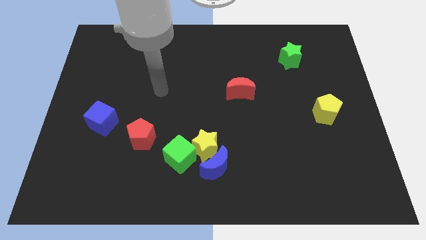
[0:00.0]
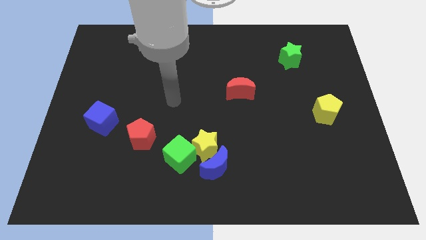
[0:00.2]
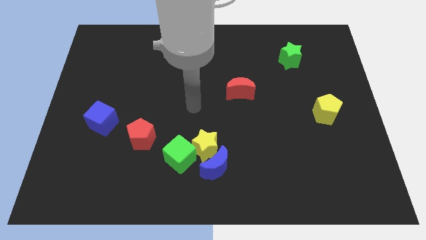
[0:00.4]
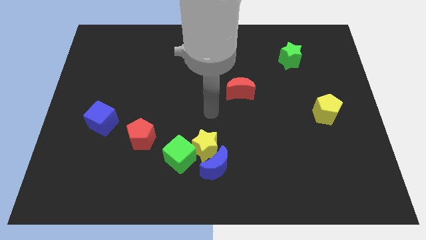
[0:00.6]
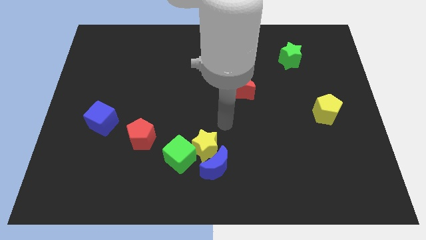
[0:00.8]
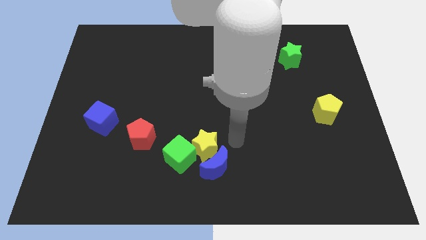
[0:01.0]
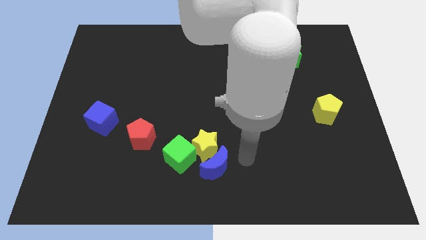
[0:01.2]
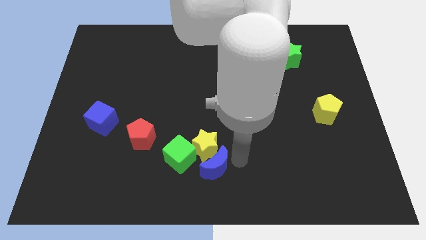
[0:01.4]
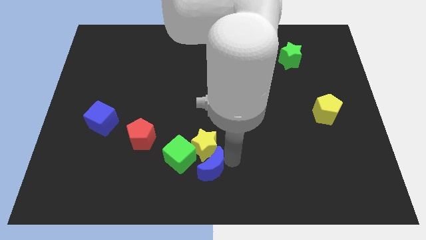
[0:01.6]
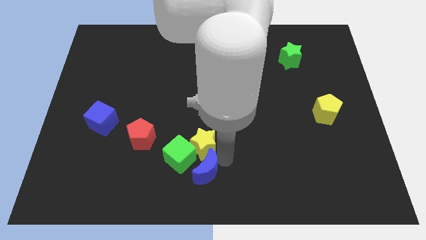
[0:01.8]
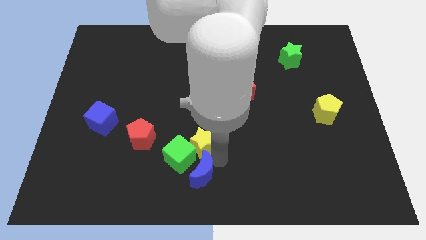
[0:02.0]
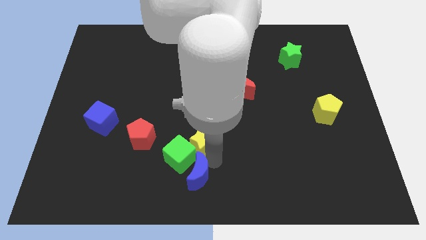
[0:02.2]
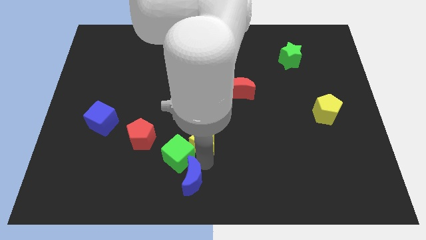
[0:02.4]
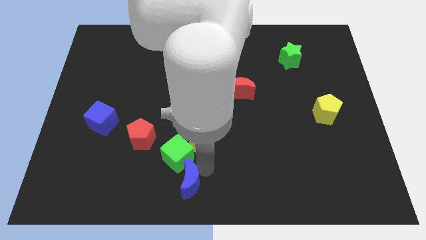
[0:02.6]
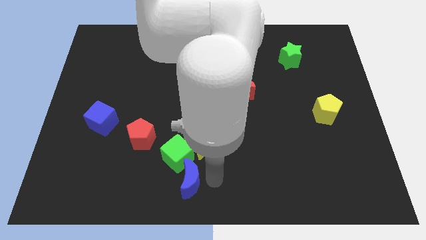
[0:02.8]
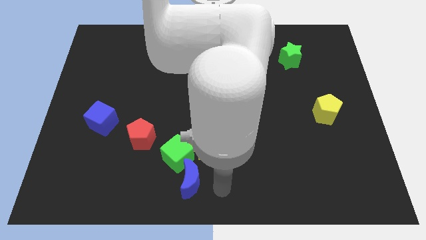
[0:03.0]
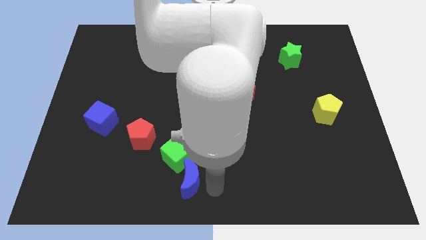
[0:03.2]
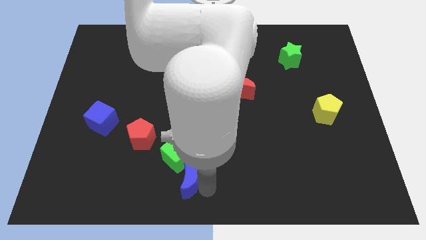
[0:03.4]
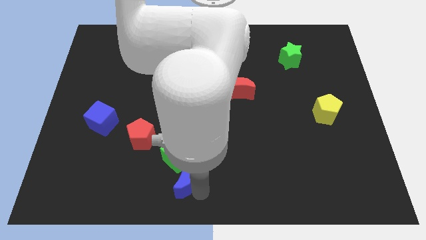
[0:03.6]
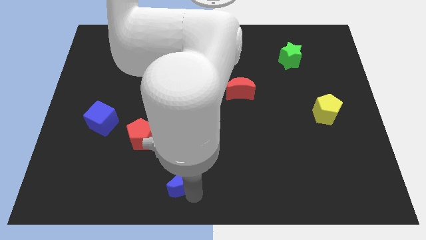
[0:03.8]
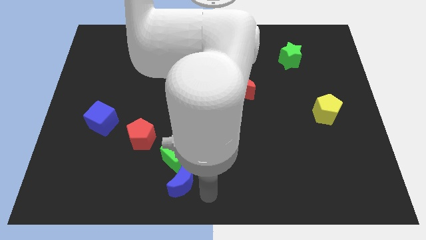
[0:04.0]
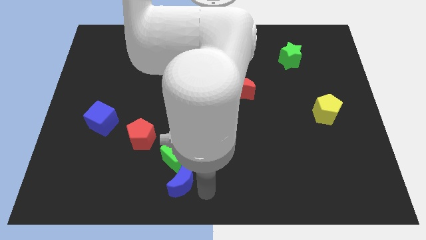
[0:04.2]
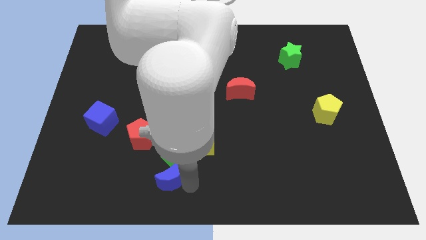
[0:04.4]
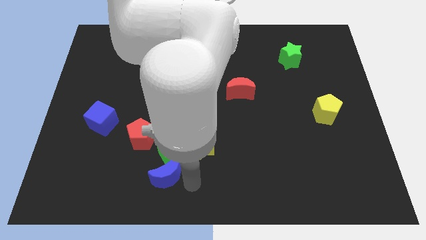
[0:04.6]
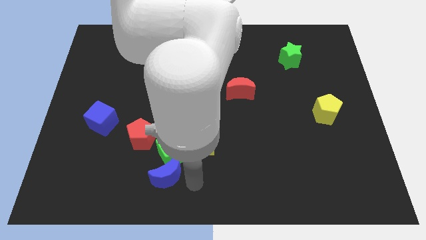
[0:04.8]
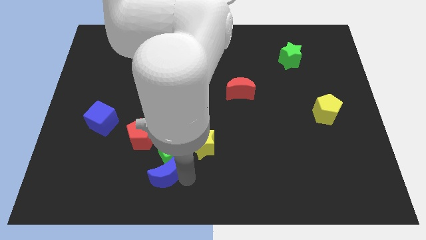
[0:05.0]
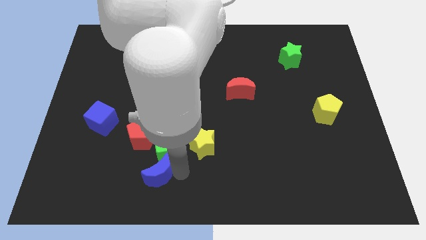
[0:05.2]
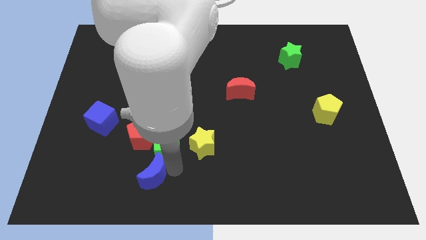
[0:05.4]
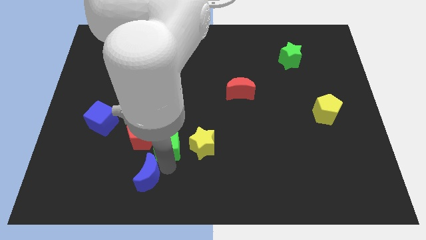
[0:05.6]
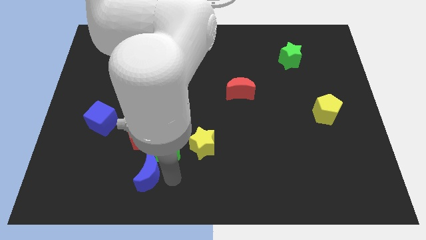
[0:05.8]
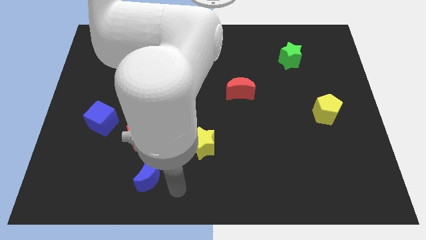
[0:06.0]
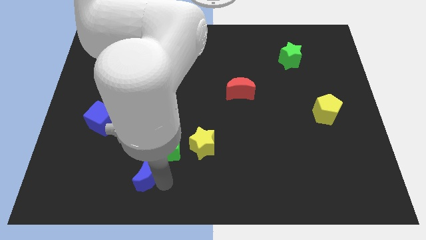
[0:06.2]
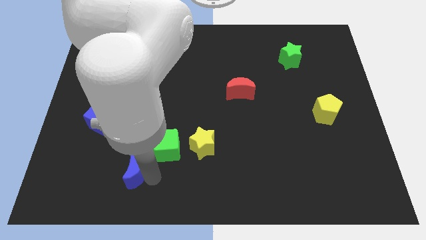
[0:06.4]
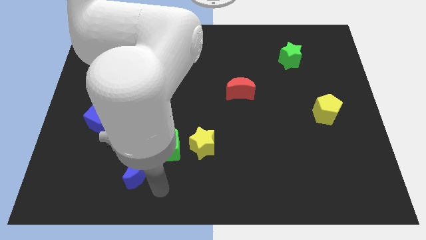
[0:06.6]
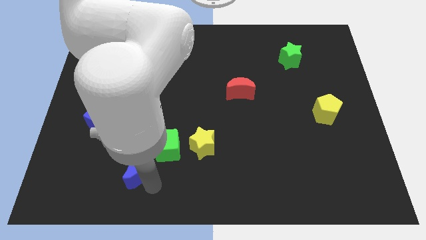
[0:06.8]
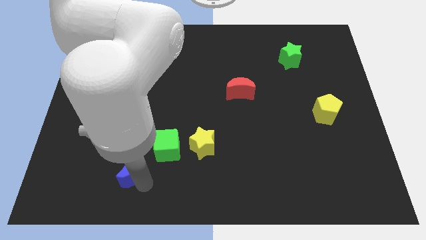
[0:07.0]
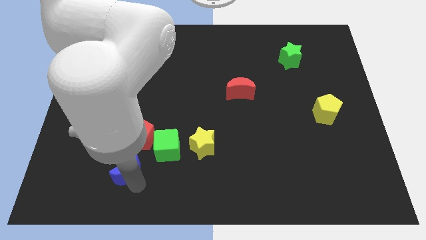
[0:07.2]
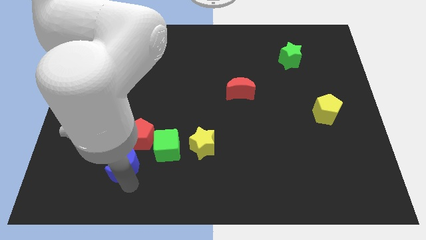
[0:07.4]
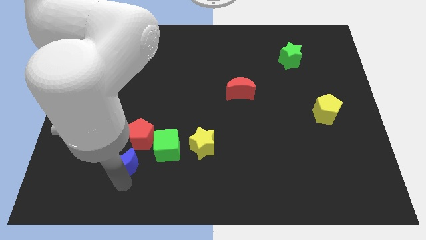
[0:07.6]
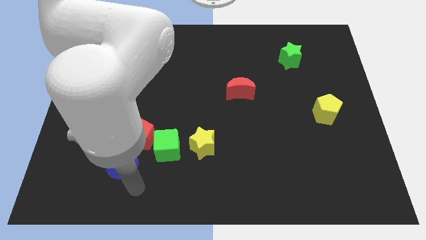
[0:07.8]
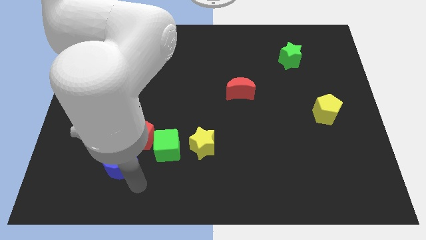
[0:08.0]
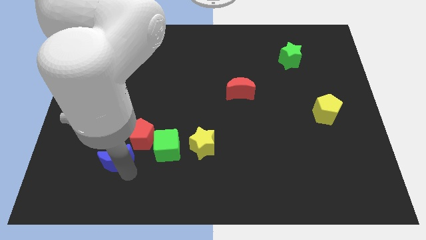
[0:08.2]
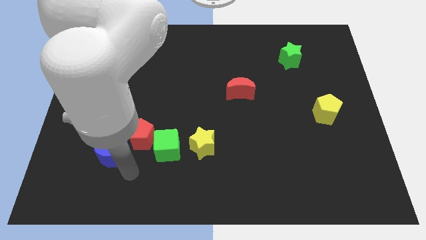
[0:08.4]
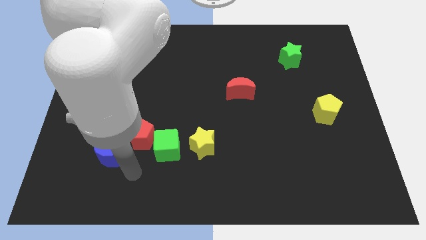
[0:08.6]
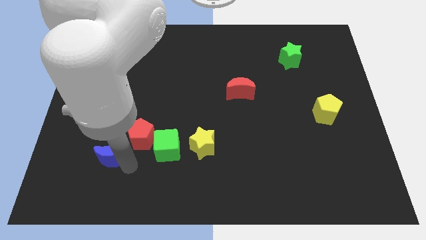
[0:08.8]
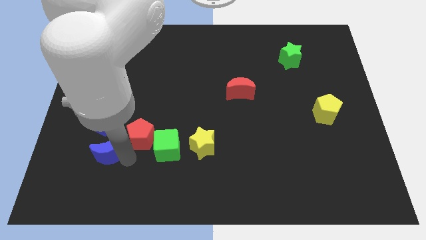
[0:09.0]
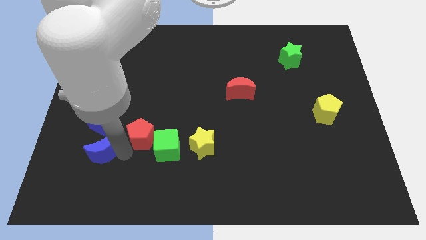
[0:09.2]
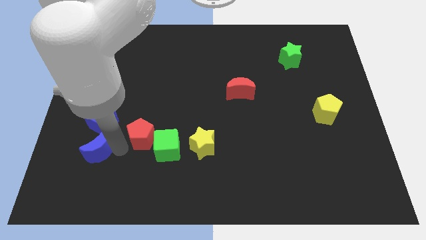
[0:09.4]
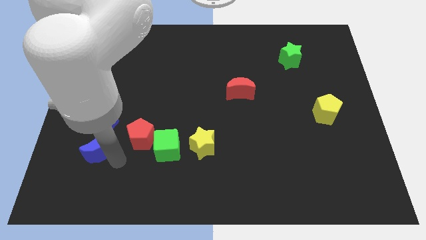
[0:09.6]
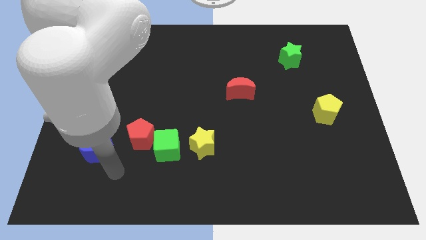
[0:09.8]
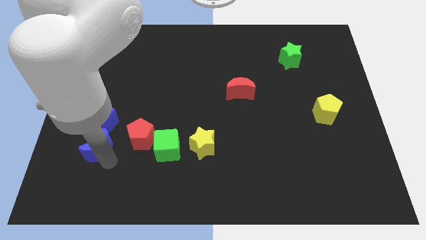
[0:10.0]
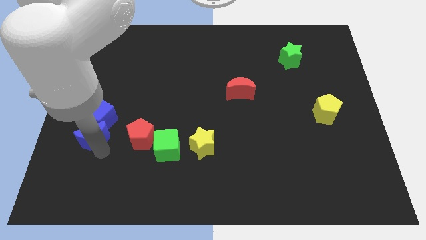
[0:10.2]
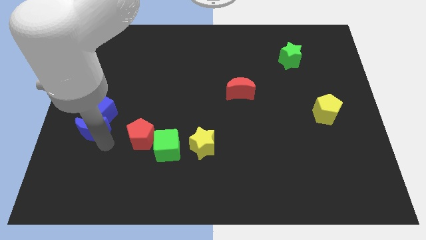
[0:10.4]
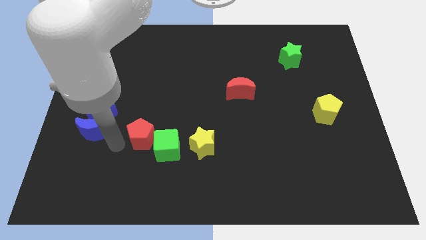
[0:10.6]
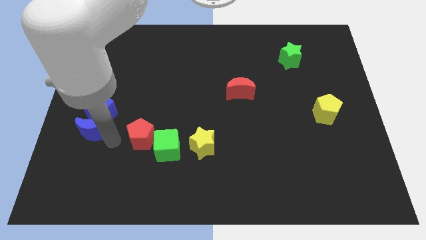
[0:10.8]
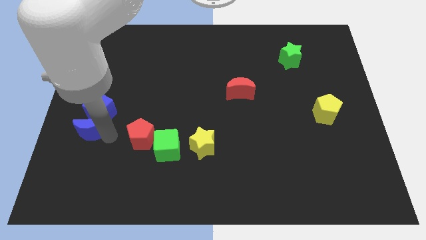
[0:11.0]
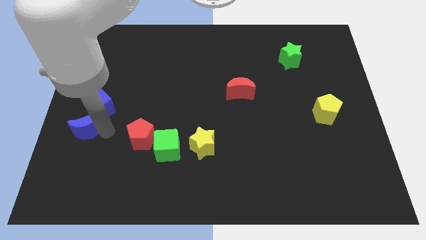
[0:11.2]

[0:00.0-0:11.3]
put the blue moon to the left side

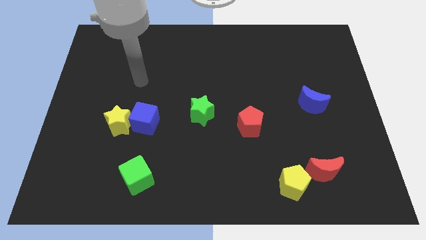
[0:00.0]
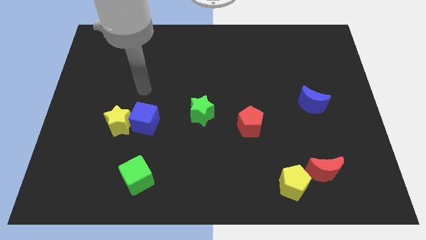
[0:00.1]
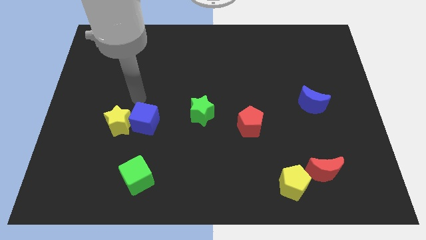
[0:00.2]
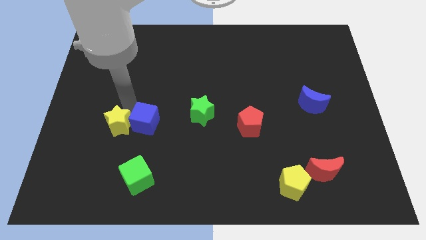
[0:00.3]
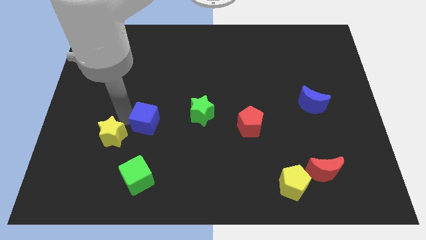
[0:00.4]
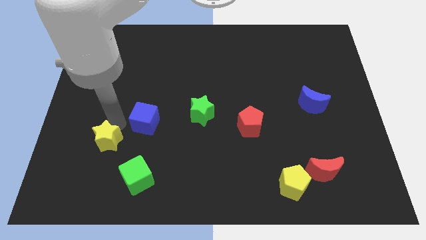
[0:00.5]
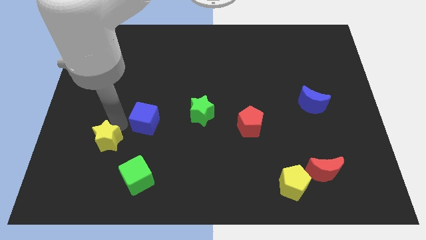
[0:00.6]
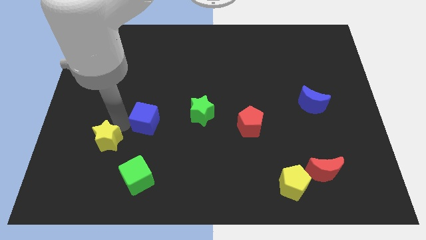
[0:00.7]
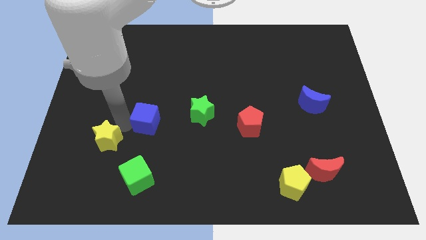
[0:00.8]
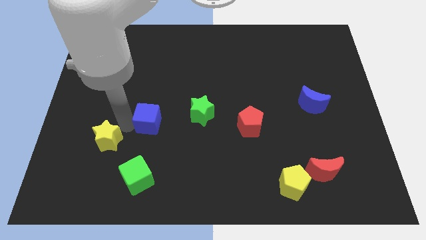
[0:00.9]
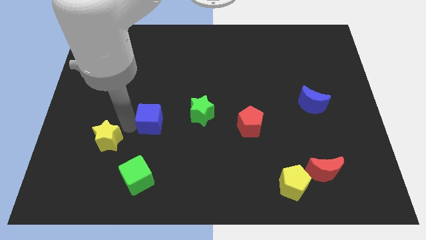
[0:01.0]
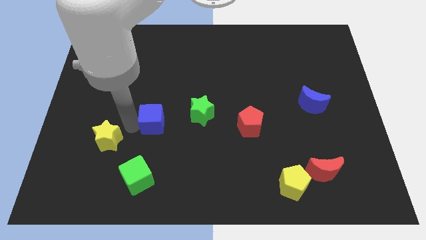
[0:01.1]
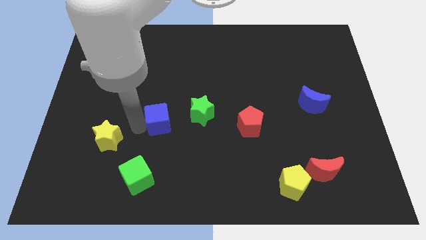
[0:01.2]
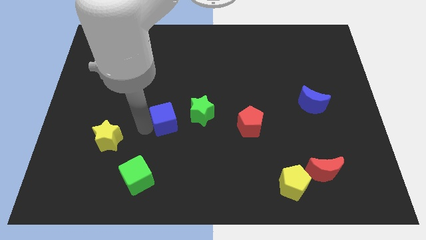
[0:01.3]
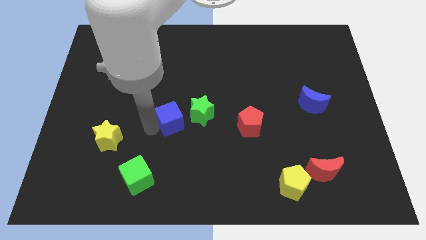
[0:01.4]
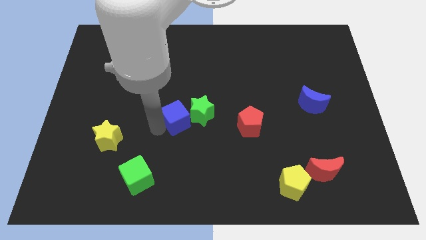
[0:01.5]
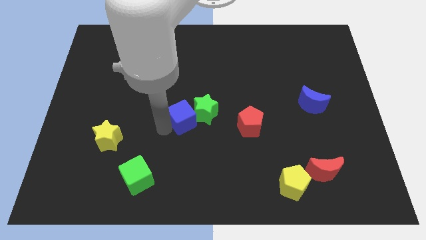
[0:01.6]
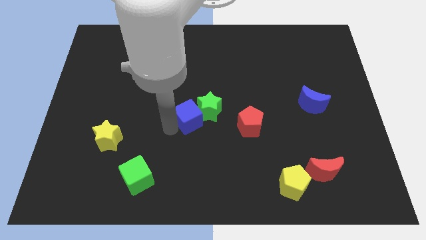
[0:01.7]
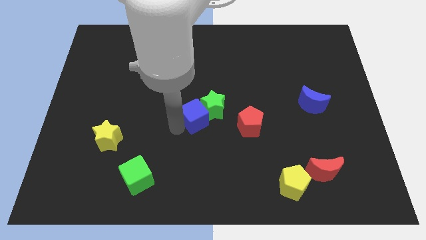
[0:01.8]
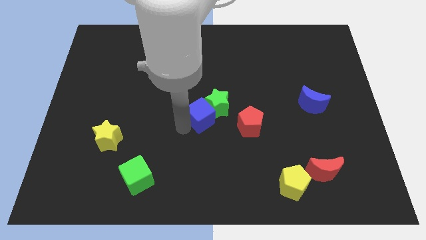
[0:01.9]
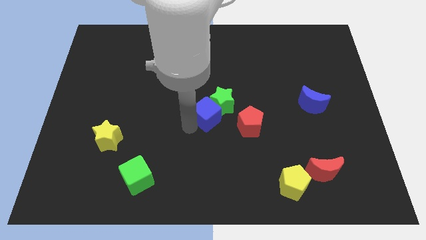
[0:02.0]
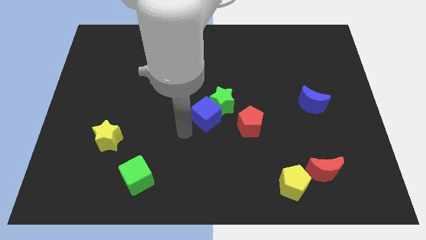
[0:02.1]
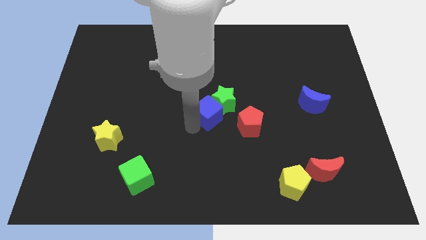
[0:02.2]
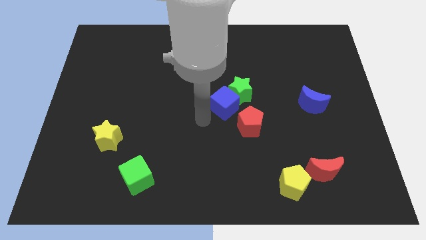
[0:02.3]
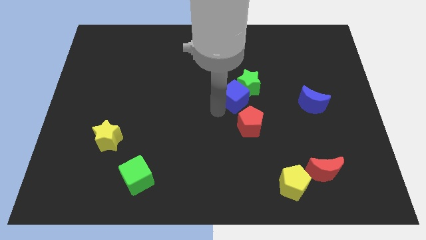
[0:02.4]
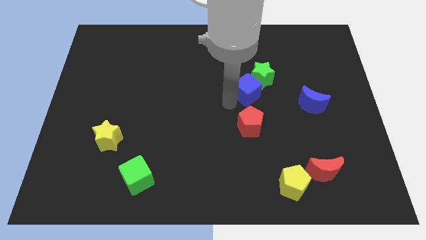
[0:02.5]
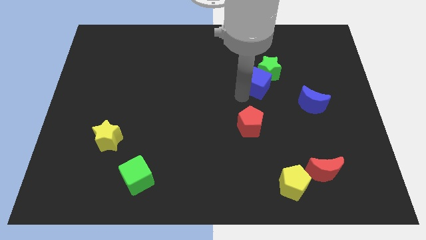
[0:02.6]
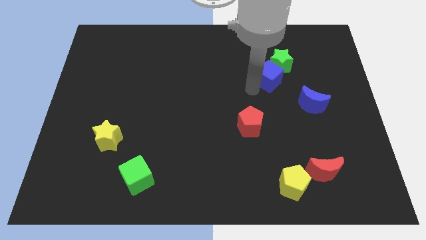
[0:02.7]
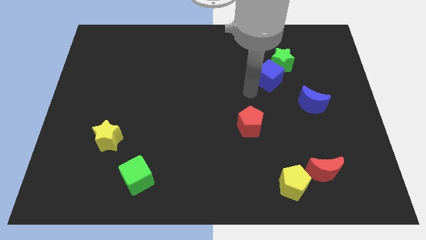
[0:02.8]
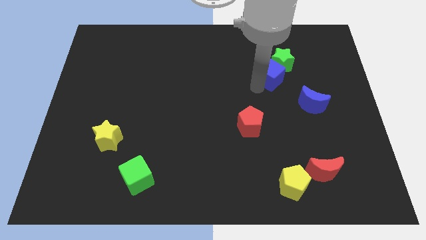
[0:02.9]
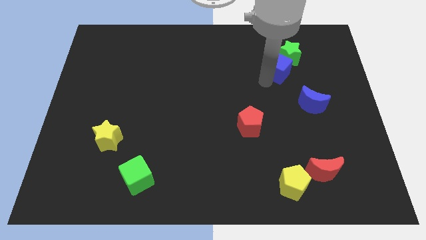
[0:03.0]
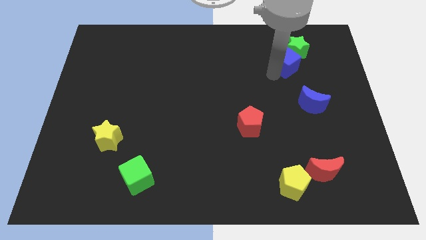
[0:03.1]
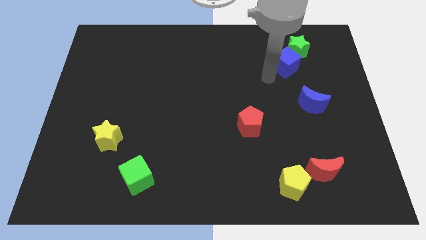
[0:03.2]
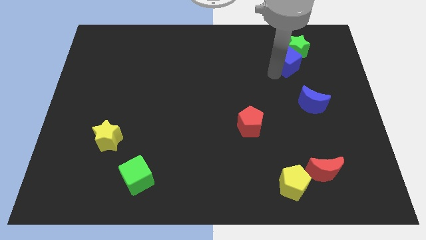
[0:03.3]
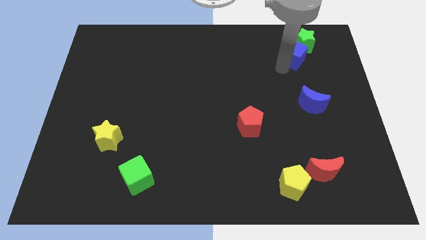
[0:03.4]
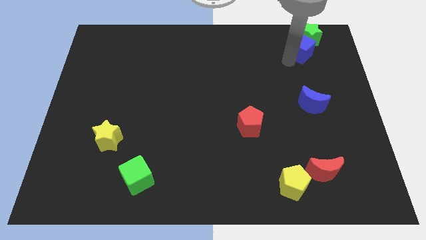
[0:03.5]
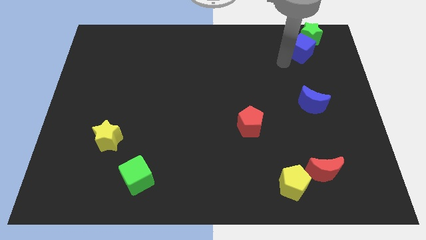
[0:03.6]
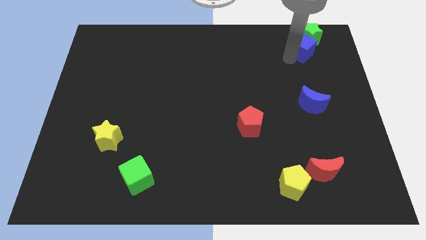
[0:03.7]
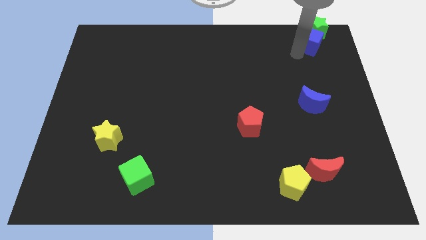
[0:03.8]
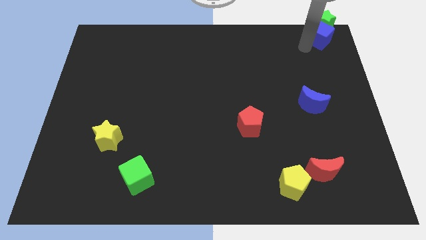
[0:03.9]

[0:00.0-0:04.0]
slide the blue cube to the top right
